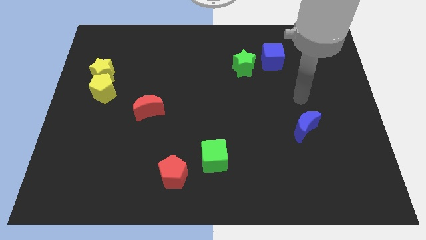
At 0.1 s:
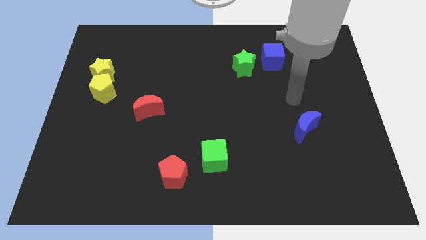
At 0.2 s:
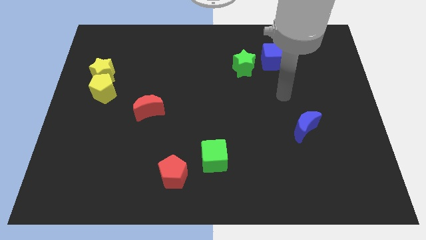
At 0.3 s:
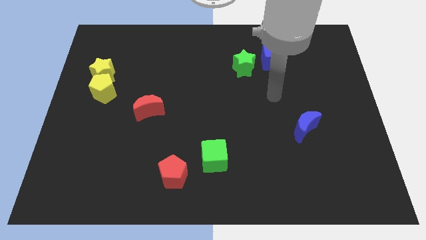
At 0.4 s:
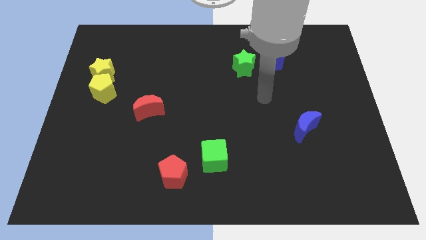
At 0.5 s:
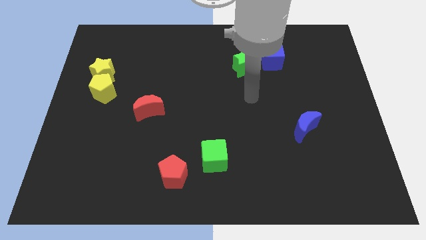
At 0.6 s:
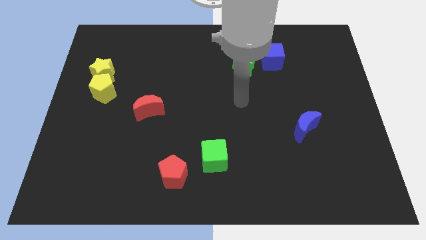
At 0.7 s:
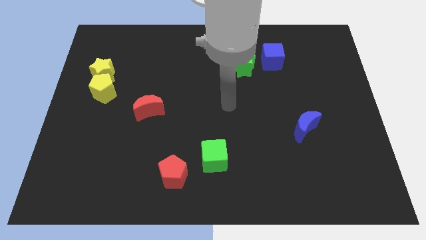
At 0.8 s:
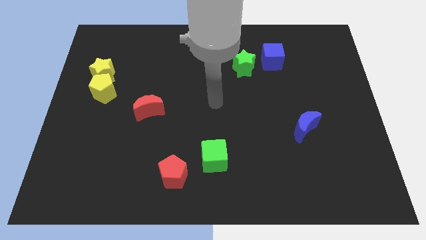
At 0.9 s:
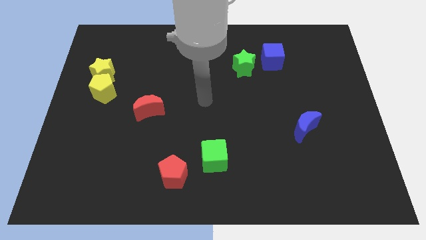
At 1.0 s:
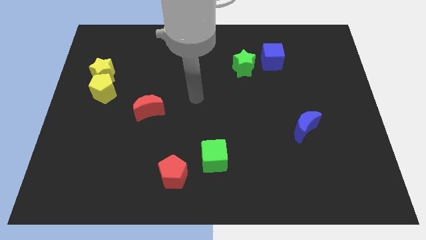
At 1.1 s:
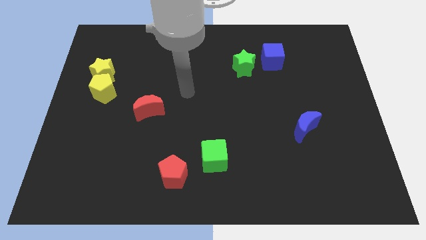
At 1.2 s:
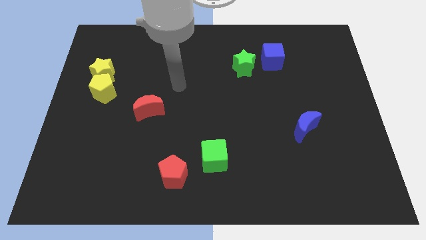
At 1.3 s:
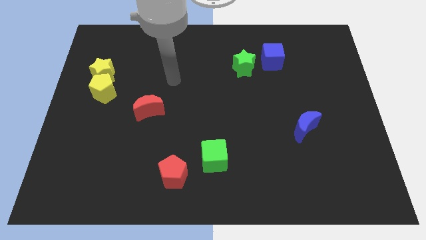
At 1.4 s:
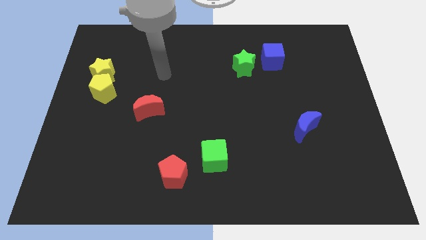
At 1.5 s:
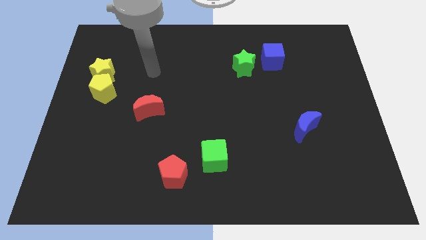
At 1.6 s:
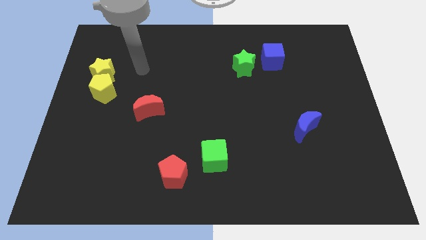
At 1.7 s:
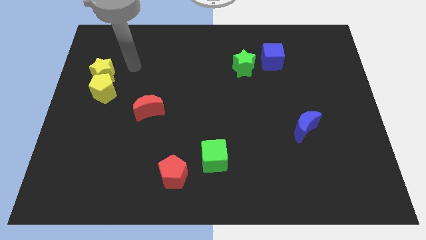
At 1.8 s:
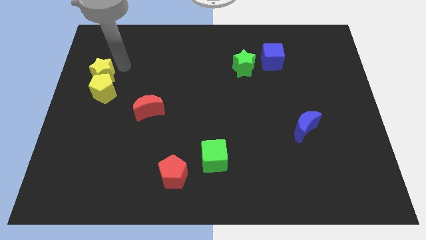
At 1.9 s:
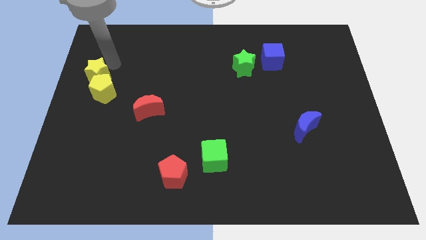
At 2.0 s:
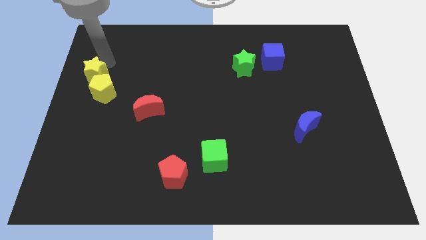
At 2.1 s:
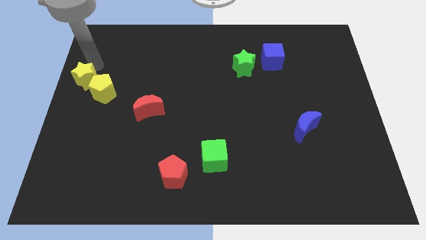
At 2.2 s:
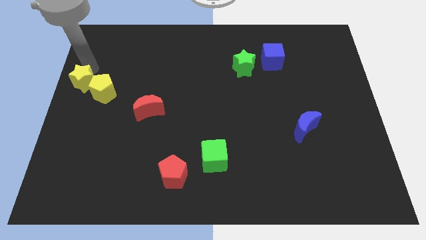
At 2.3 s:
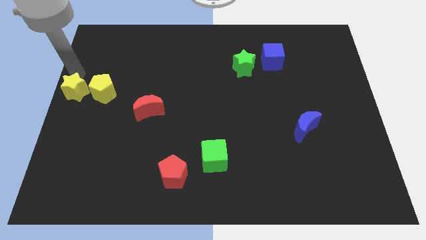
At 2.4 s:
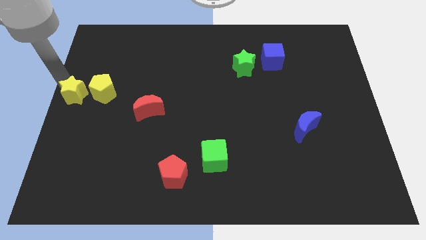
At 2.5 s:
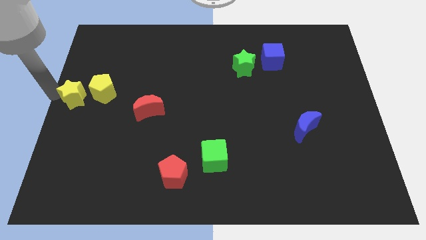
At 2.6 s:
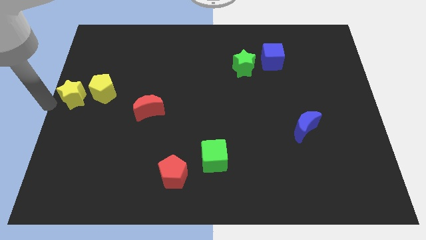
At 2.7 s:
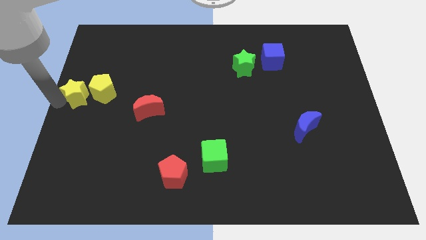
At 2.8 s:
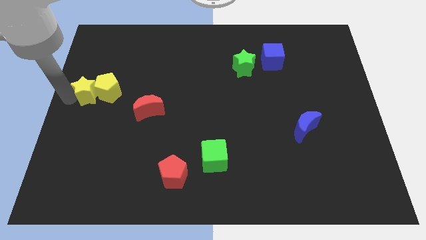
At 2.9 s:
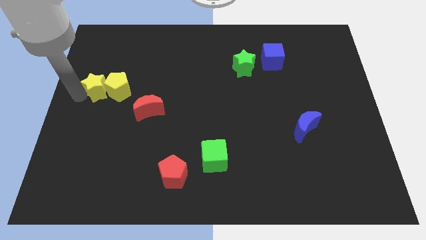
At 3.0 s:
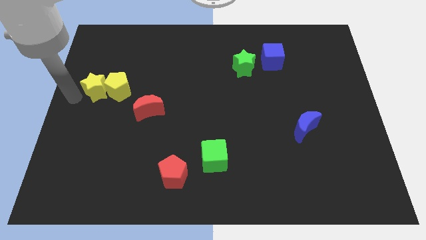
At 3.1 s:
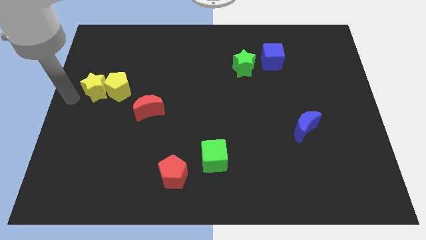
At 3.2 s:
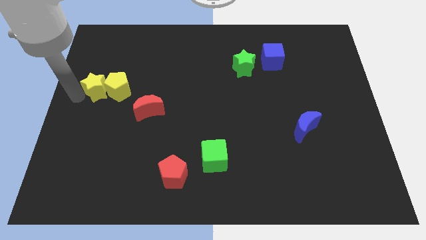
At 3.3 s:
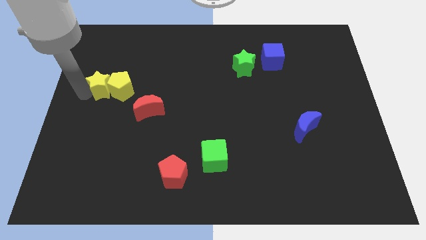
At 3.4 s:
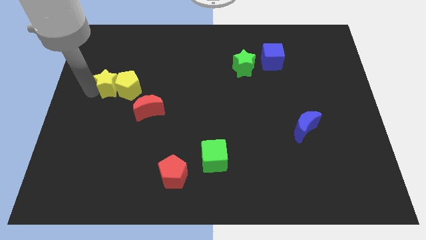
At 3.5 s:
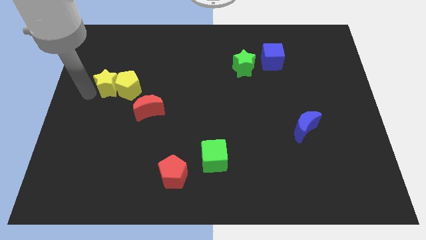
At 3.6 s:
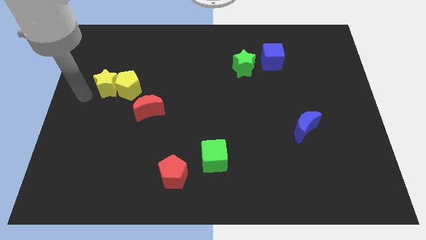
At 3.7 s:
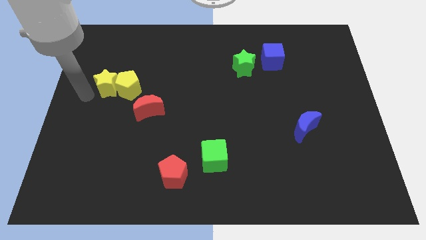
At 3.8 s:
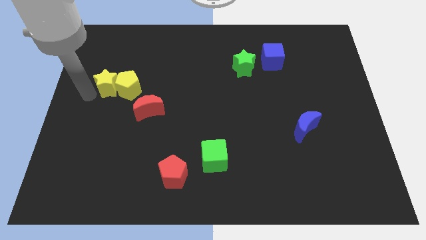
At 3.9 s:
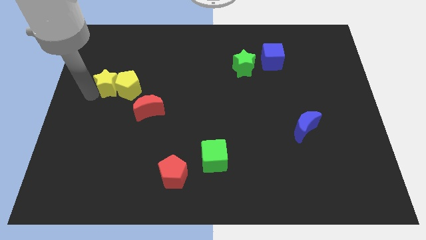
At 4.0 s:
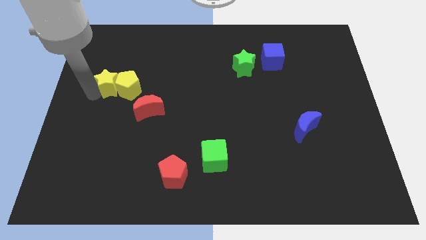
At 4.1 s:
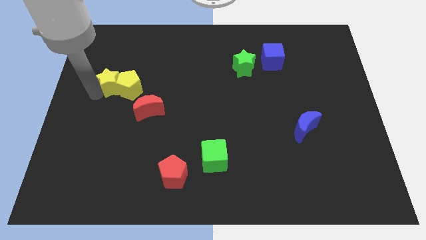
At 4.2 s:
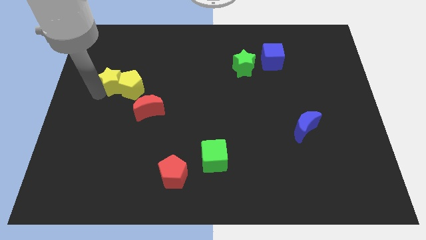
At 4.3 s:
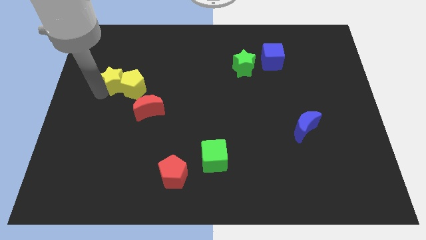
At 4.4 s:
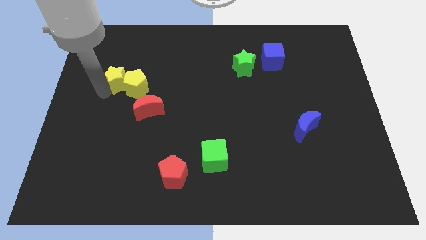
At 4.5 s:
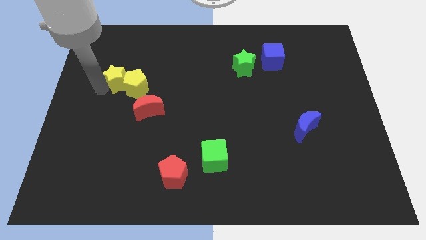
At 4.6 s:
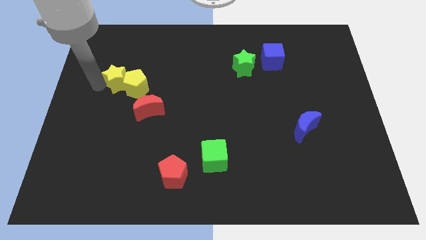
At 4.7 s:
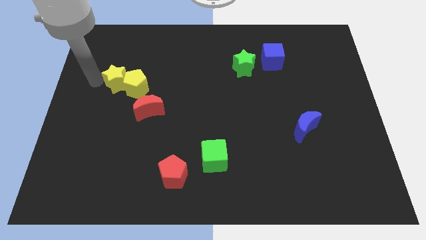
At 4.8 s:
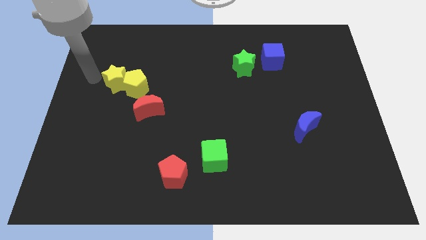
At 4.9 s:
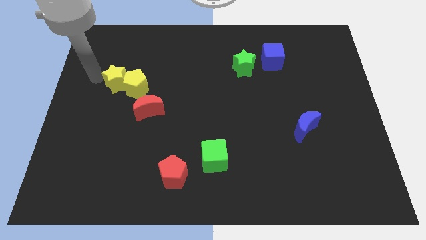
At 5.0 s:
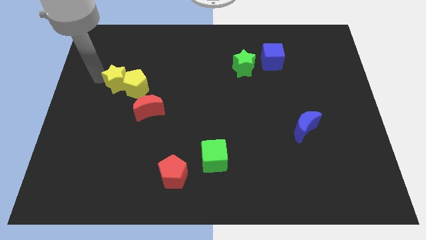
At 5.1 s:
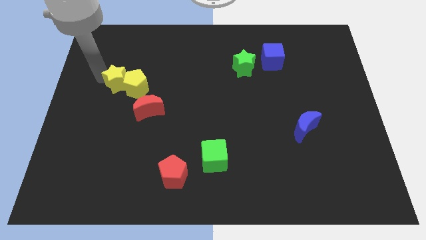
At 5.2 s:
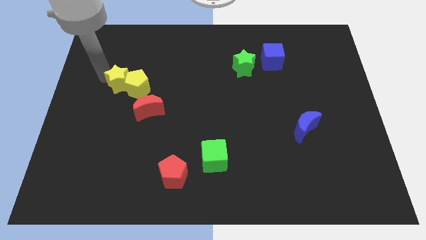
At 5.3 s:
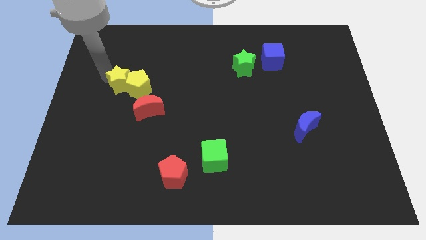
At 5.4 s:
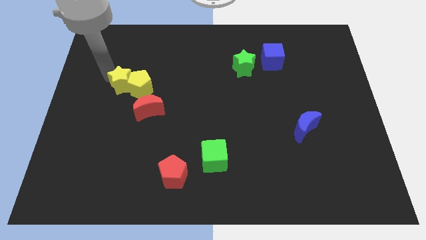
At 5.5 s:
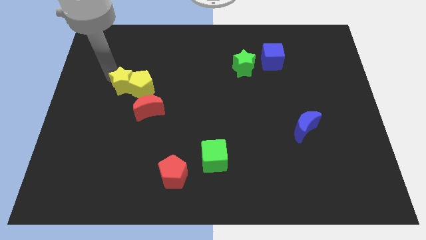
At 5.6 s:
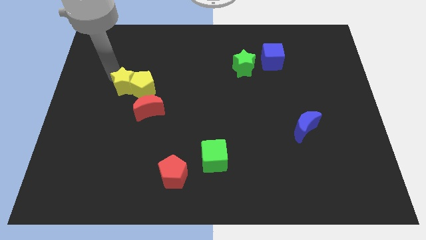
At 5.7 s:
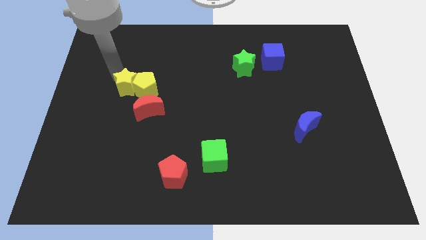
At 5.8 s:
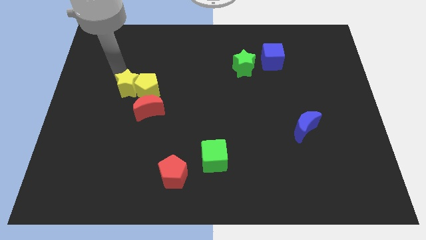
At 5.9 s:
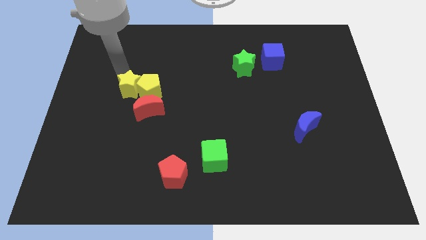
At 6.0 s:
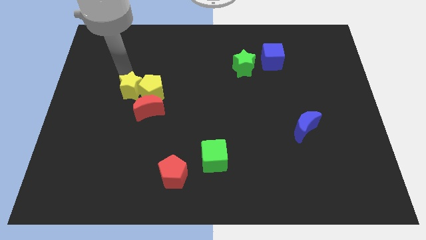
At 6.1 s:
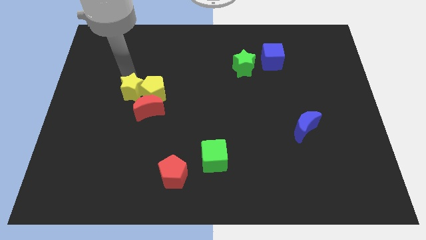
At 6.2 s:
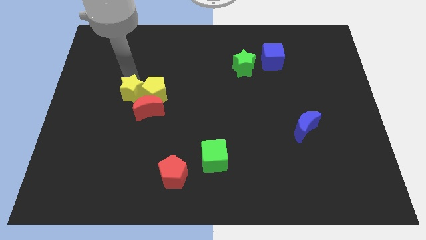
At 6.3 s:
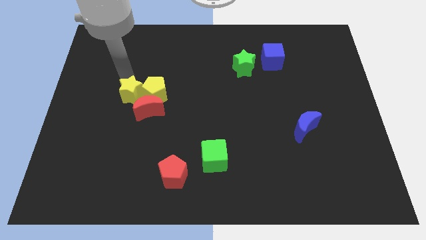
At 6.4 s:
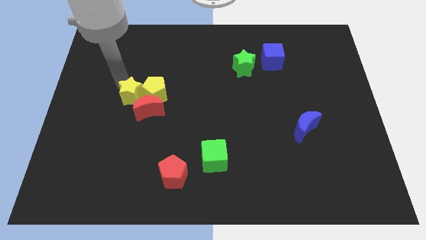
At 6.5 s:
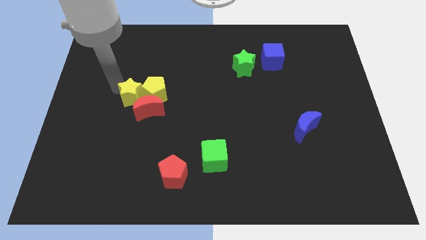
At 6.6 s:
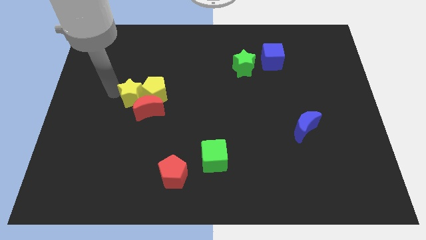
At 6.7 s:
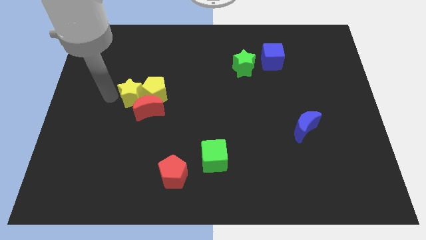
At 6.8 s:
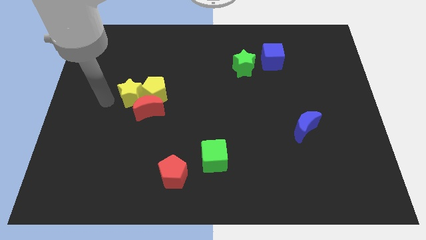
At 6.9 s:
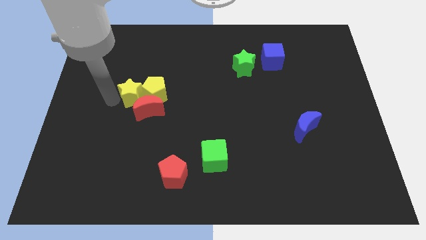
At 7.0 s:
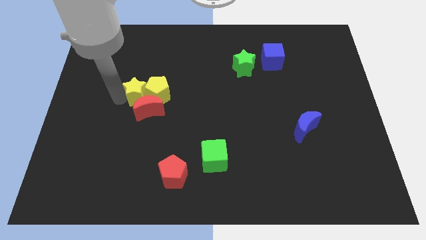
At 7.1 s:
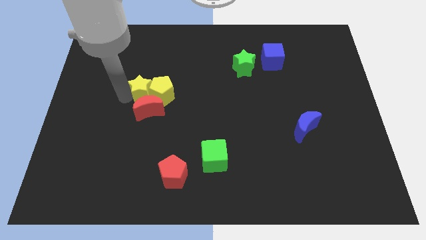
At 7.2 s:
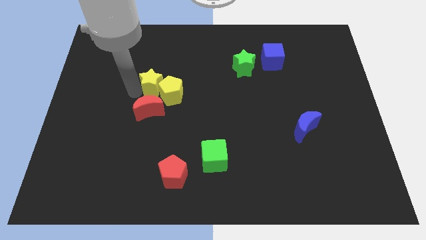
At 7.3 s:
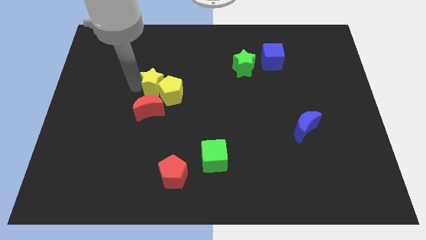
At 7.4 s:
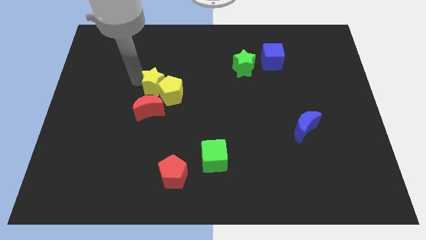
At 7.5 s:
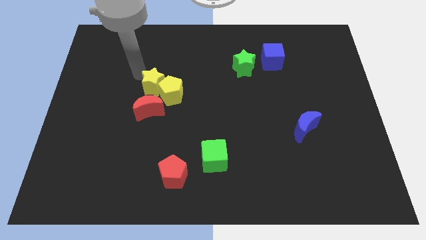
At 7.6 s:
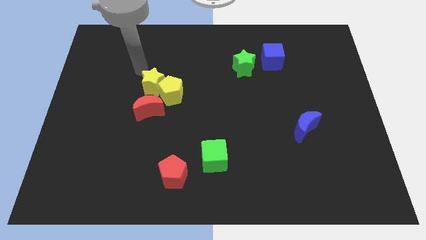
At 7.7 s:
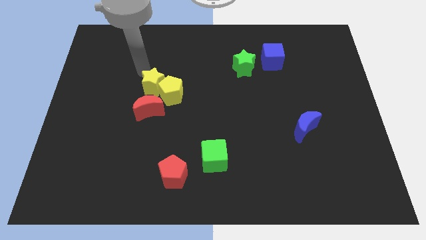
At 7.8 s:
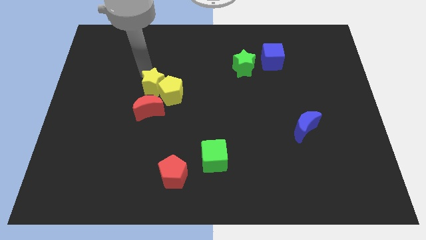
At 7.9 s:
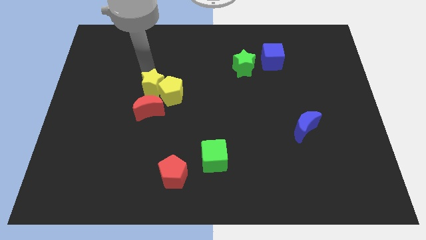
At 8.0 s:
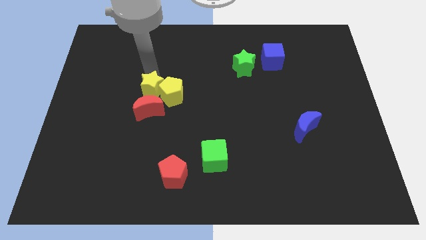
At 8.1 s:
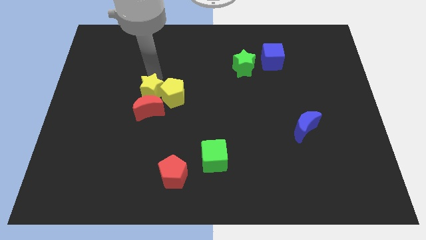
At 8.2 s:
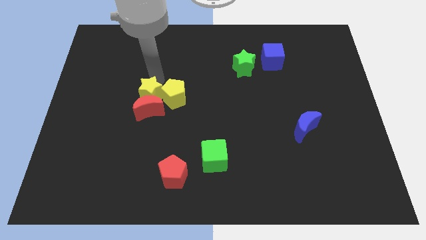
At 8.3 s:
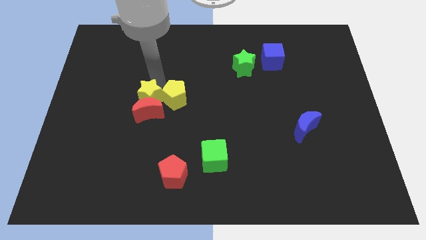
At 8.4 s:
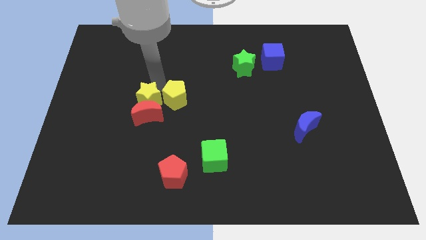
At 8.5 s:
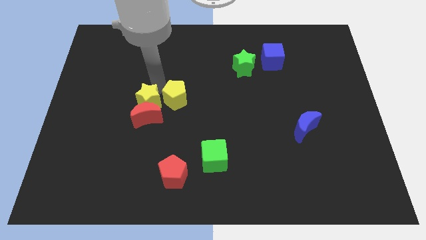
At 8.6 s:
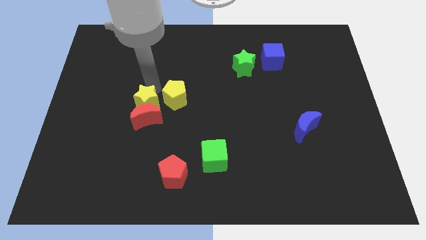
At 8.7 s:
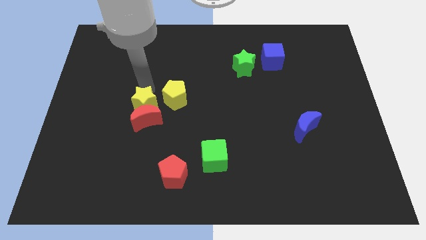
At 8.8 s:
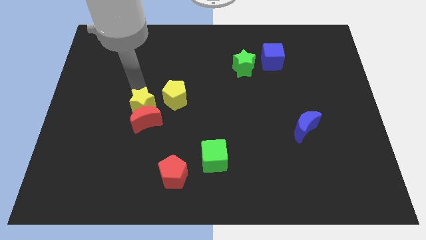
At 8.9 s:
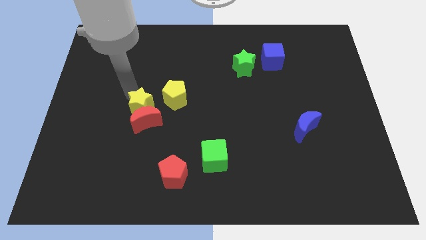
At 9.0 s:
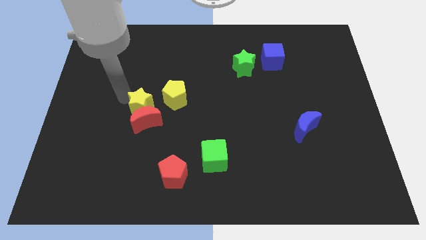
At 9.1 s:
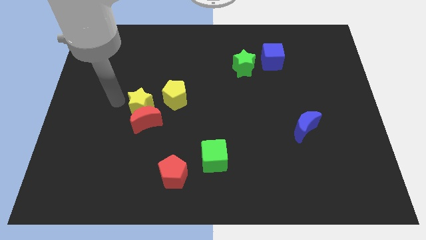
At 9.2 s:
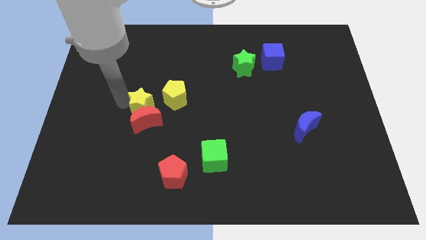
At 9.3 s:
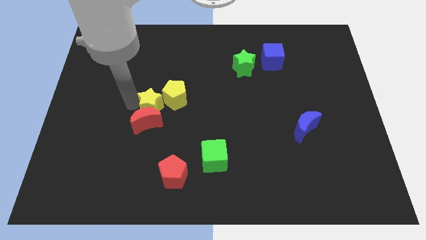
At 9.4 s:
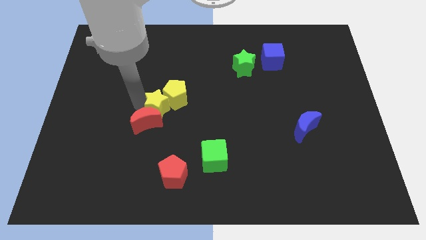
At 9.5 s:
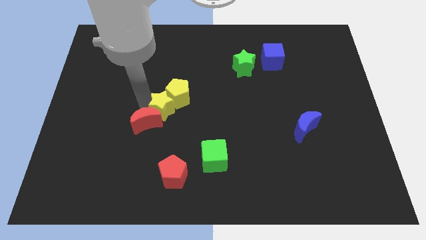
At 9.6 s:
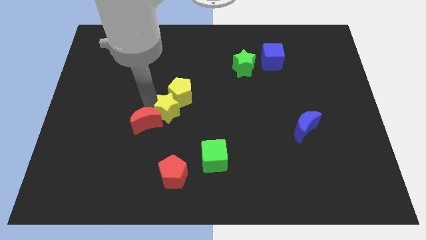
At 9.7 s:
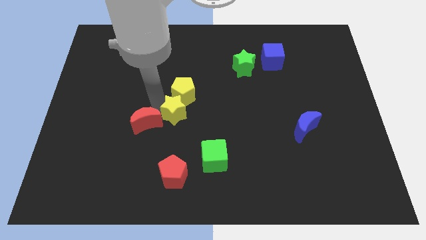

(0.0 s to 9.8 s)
slide the yellow star down and right
